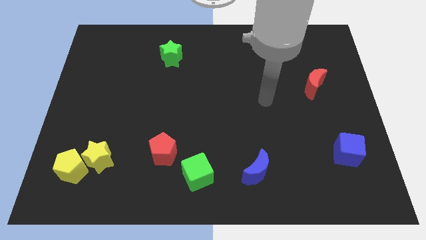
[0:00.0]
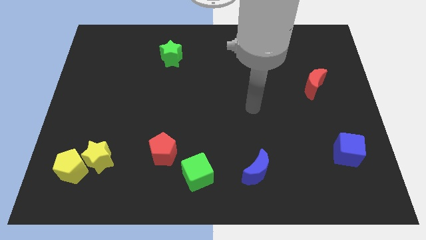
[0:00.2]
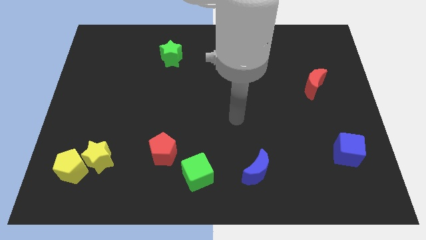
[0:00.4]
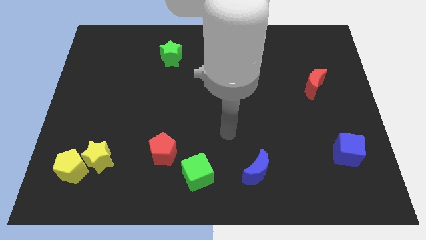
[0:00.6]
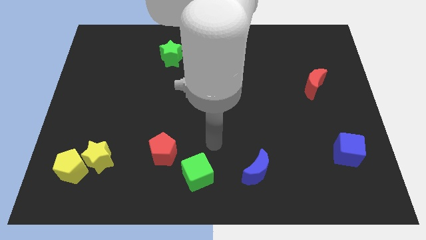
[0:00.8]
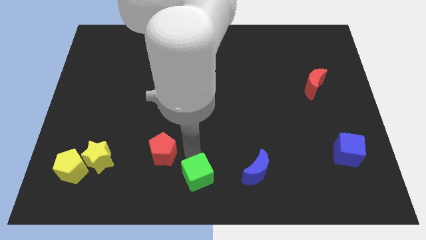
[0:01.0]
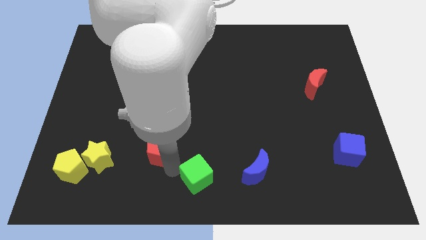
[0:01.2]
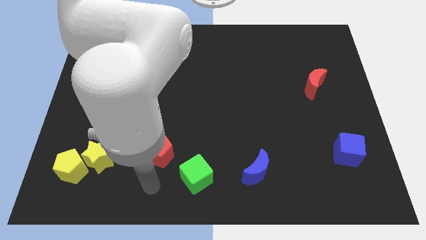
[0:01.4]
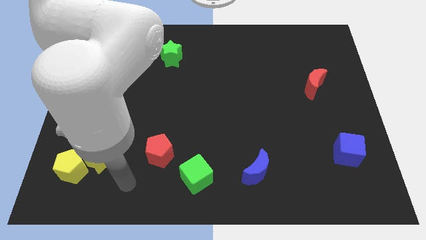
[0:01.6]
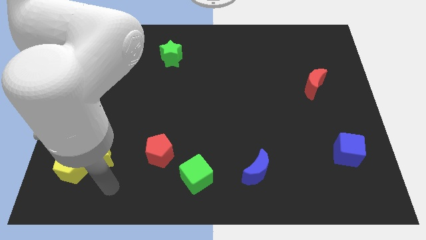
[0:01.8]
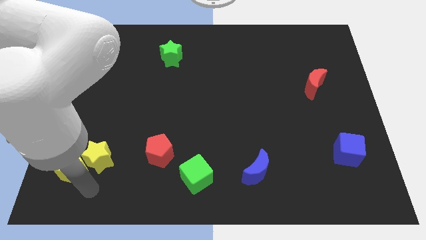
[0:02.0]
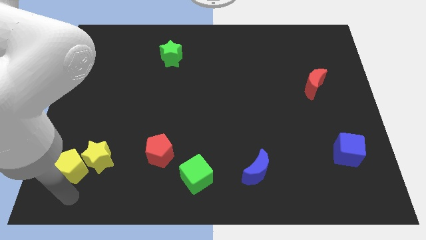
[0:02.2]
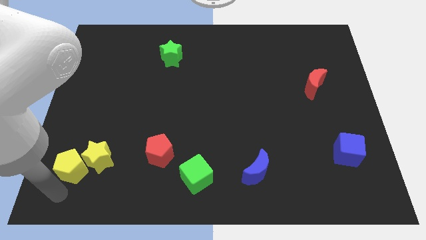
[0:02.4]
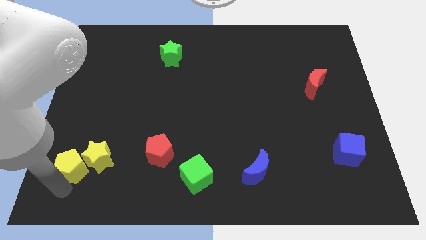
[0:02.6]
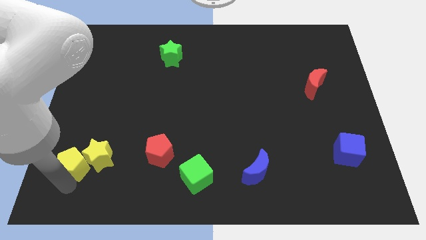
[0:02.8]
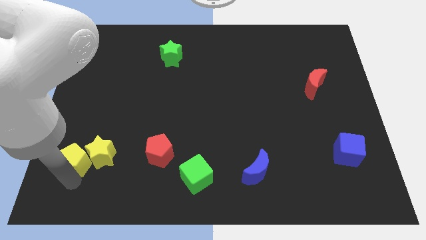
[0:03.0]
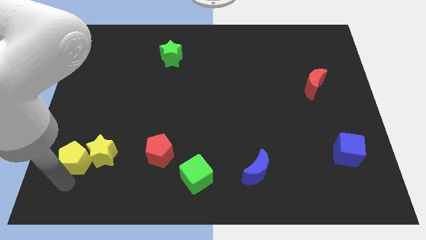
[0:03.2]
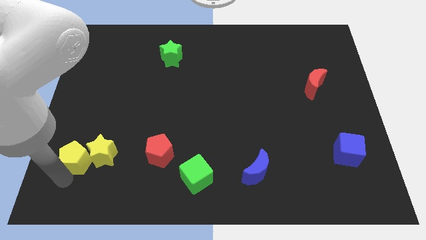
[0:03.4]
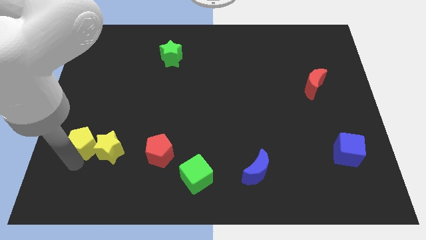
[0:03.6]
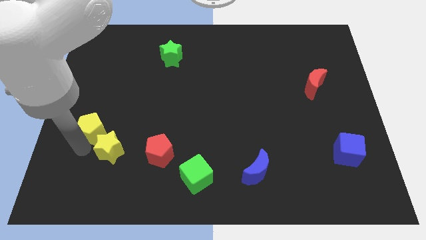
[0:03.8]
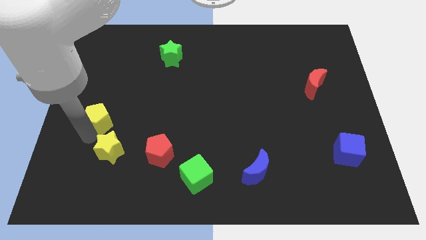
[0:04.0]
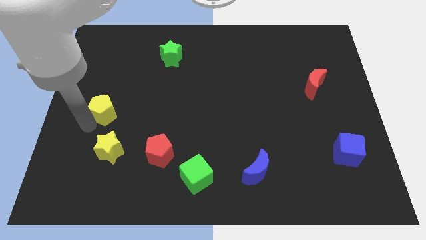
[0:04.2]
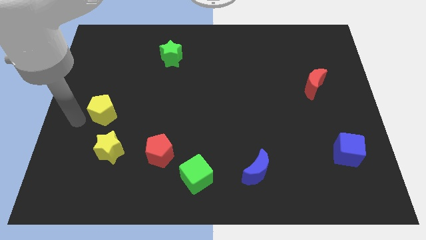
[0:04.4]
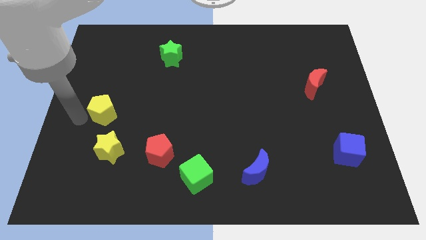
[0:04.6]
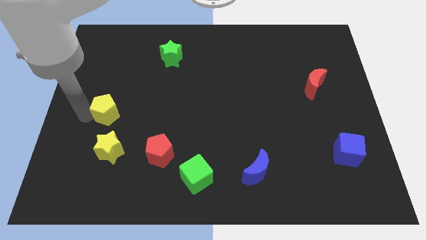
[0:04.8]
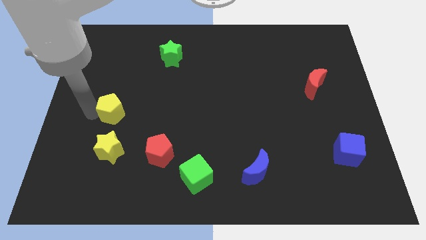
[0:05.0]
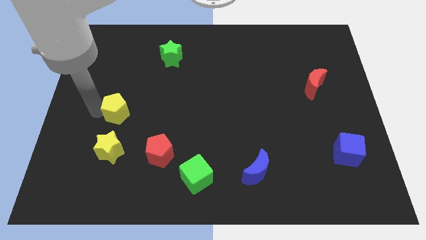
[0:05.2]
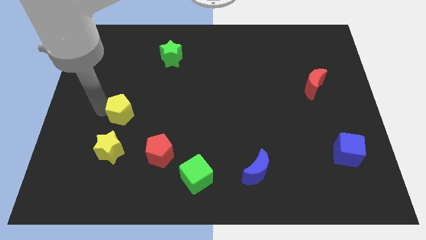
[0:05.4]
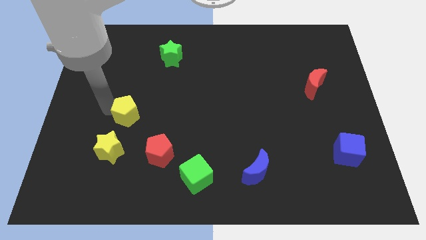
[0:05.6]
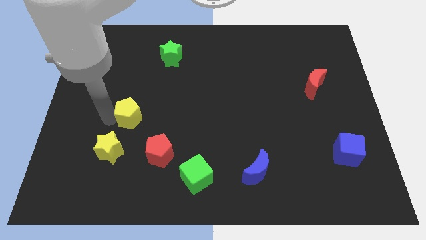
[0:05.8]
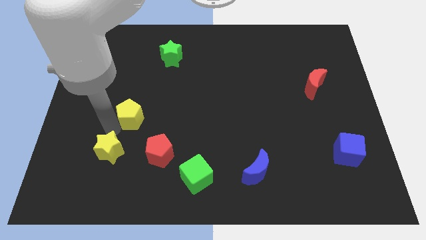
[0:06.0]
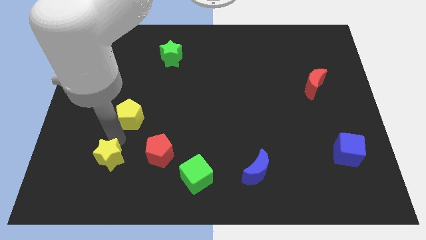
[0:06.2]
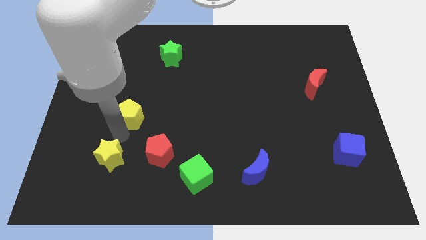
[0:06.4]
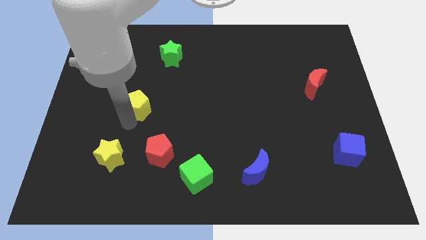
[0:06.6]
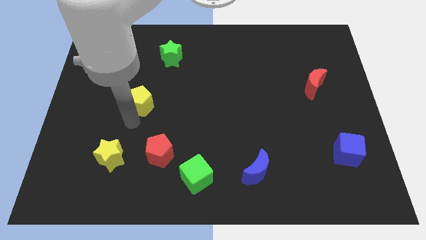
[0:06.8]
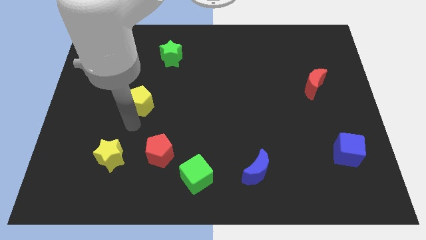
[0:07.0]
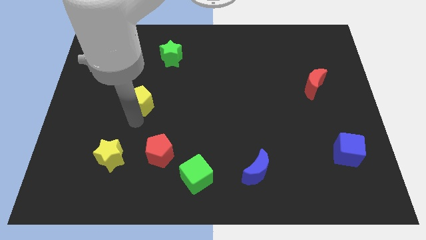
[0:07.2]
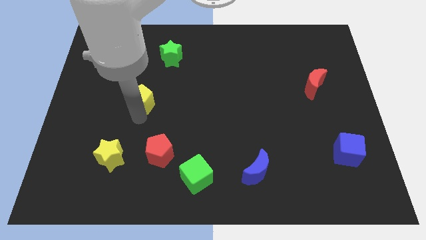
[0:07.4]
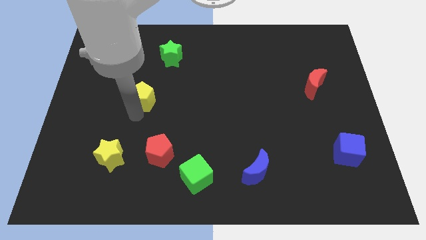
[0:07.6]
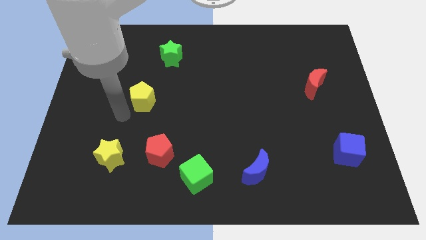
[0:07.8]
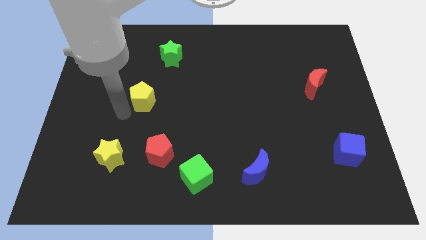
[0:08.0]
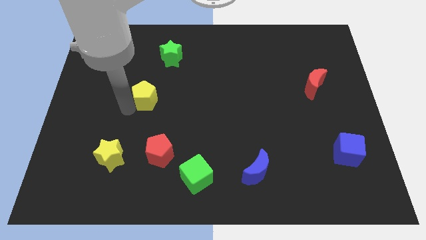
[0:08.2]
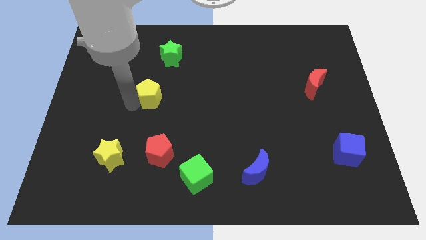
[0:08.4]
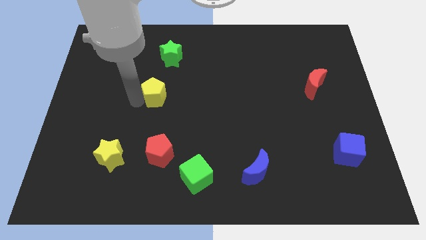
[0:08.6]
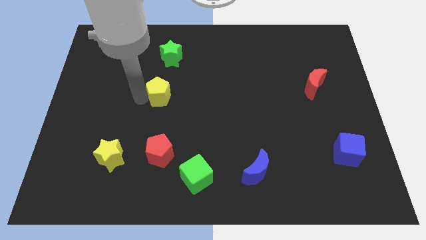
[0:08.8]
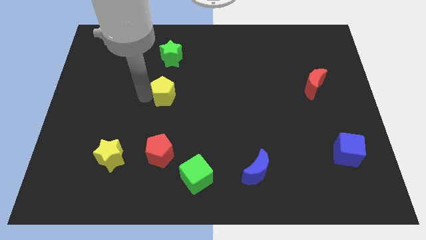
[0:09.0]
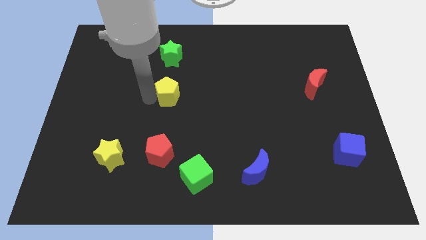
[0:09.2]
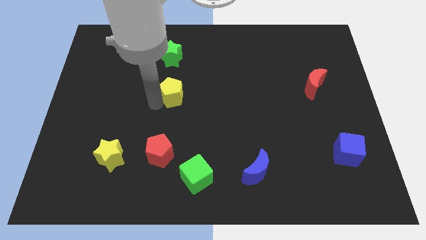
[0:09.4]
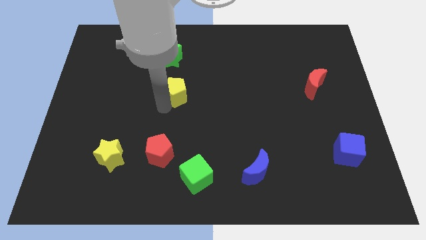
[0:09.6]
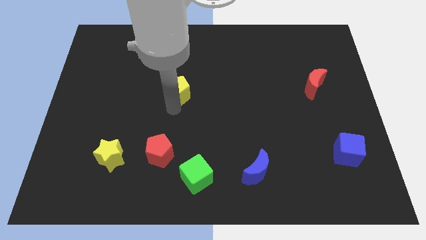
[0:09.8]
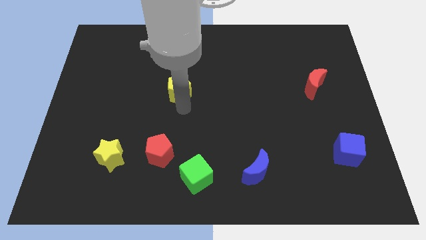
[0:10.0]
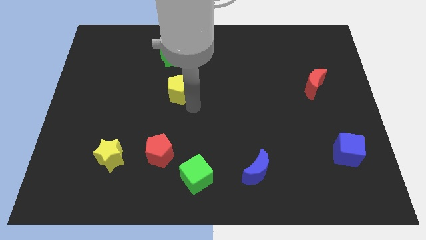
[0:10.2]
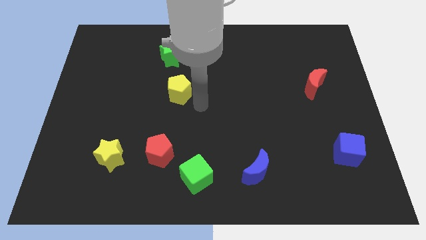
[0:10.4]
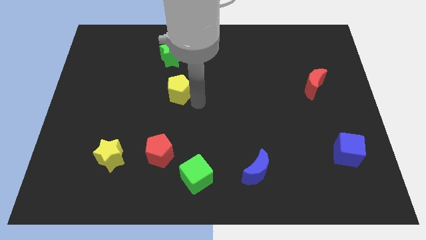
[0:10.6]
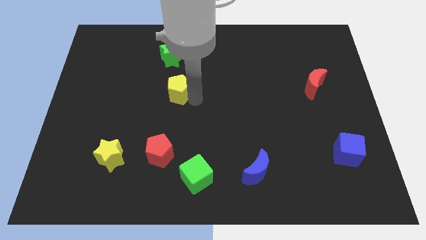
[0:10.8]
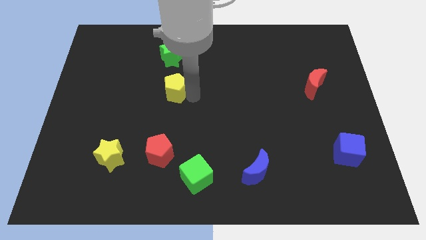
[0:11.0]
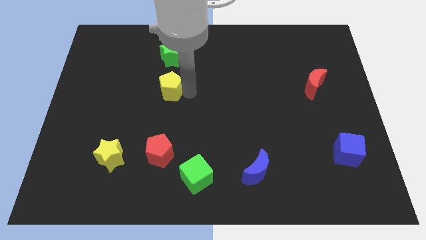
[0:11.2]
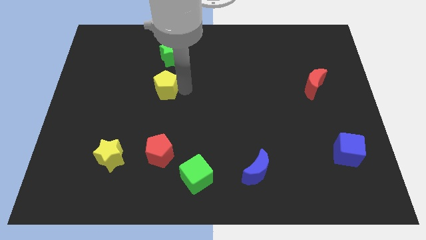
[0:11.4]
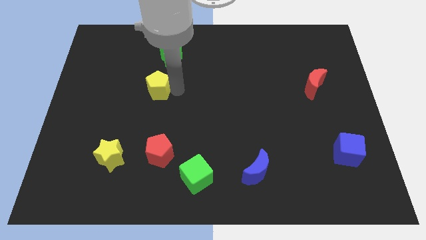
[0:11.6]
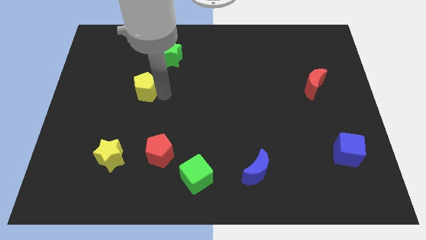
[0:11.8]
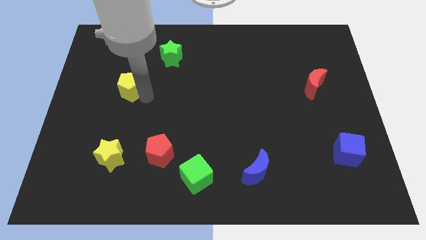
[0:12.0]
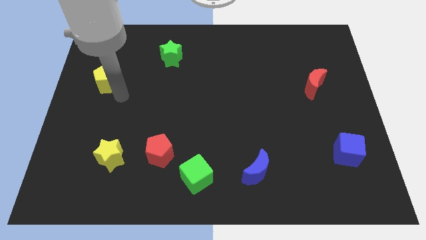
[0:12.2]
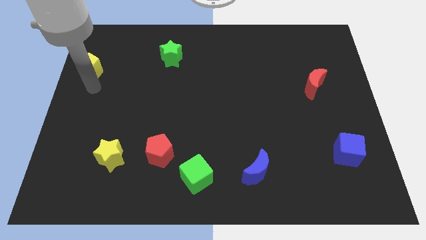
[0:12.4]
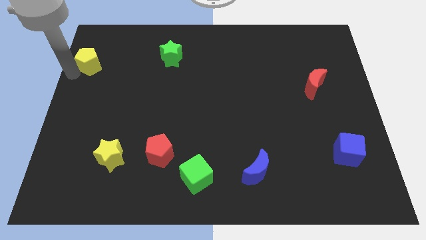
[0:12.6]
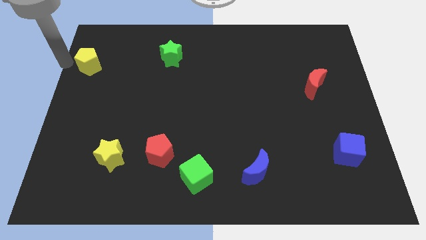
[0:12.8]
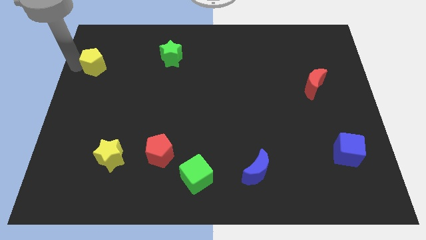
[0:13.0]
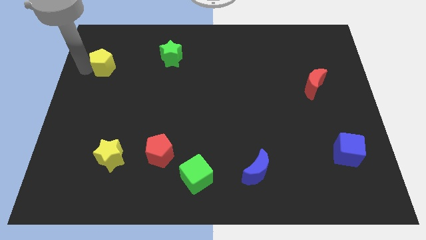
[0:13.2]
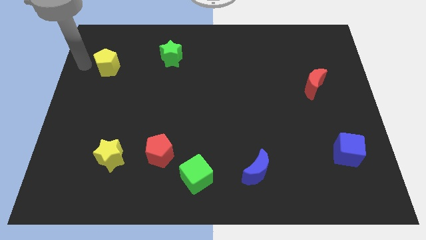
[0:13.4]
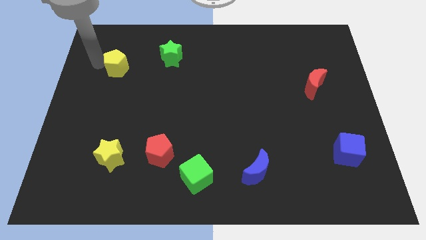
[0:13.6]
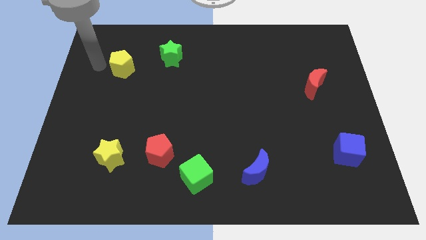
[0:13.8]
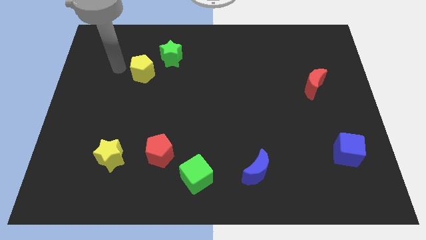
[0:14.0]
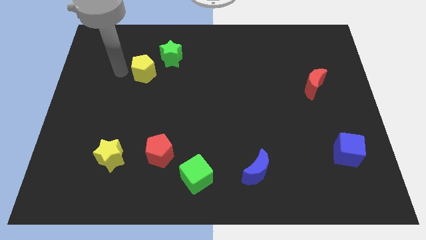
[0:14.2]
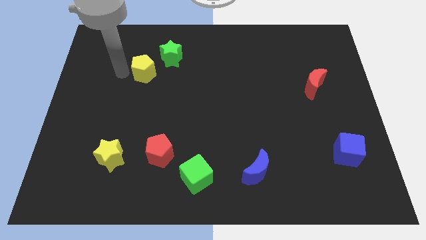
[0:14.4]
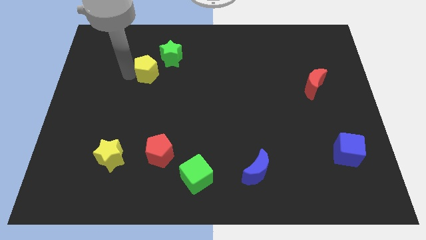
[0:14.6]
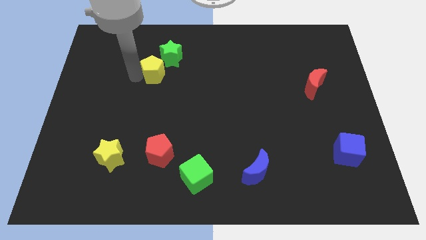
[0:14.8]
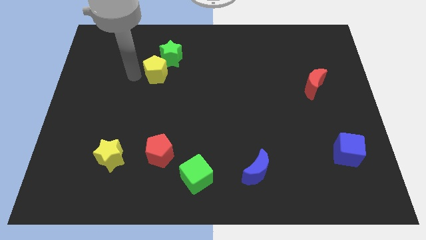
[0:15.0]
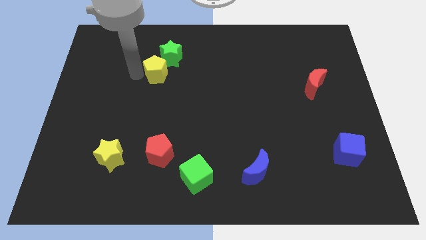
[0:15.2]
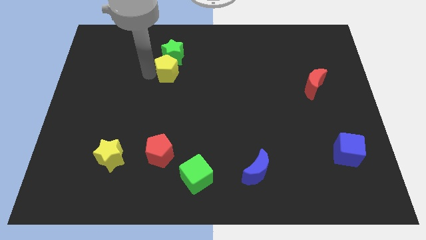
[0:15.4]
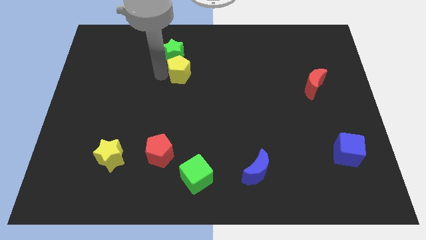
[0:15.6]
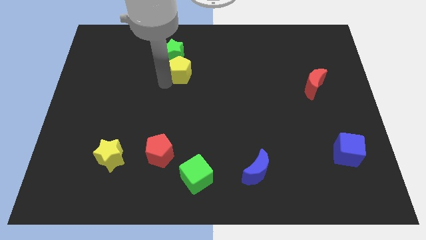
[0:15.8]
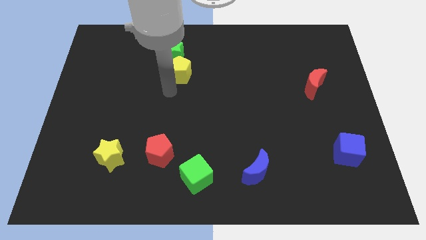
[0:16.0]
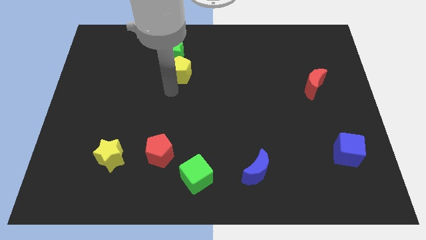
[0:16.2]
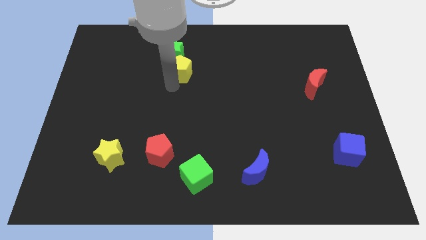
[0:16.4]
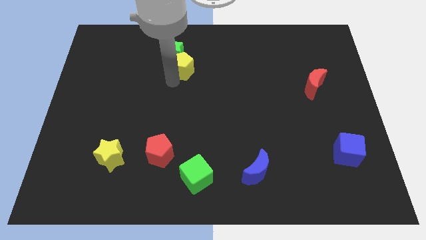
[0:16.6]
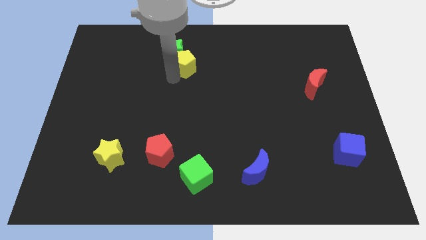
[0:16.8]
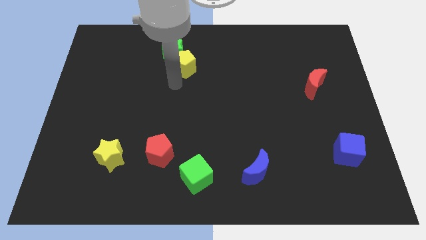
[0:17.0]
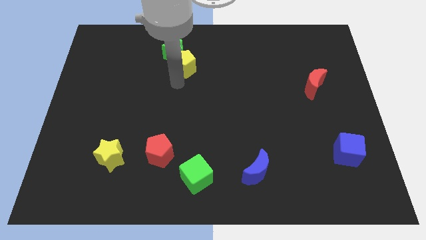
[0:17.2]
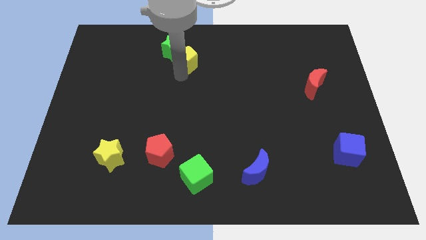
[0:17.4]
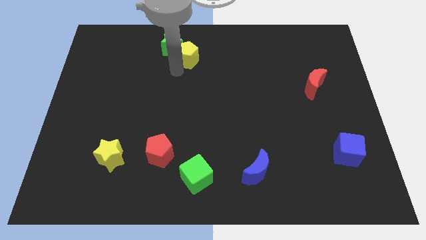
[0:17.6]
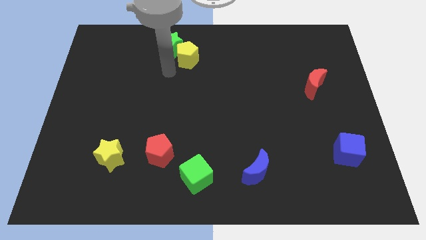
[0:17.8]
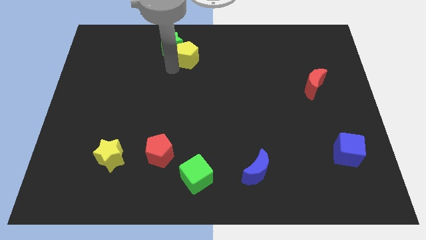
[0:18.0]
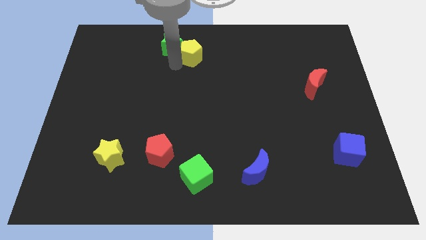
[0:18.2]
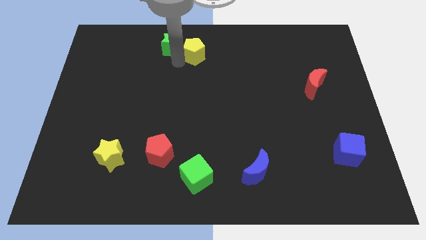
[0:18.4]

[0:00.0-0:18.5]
push the yellow pentagon to the top
